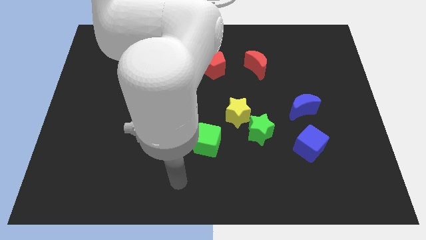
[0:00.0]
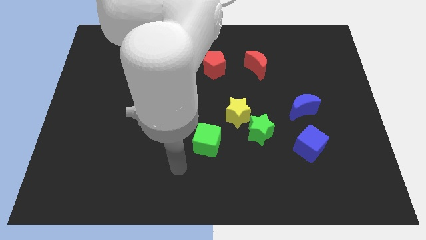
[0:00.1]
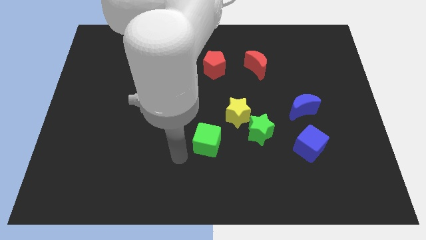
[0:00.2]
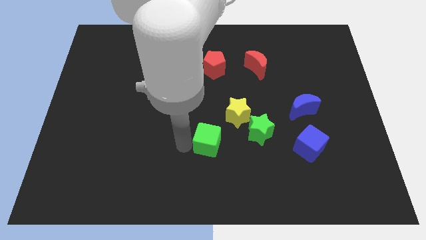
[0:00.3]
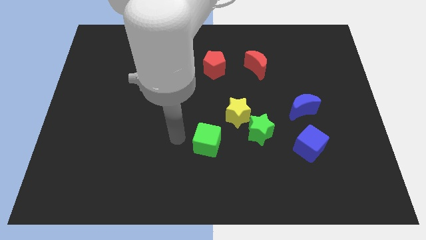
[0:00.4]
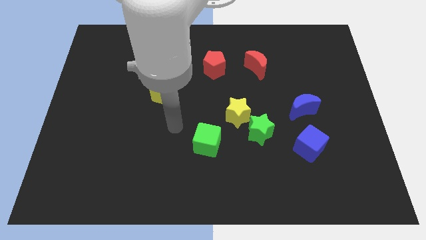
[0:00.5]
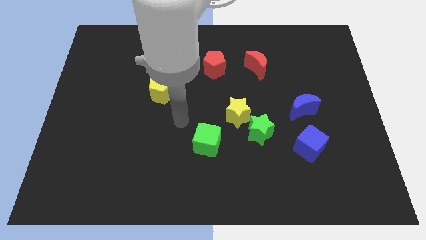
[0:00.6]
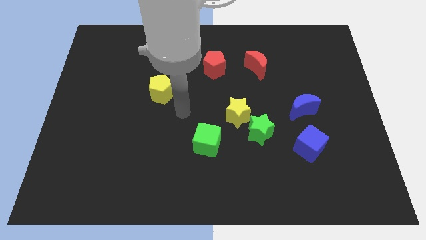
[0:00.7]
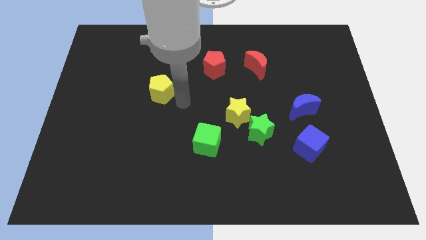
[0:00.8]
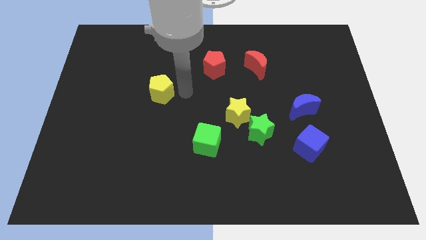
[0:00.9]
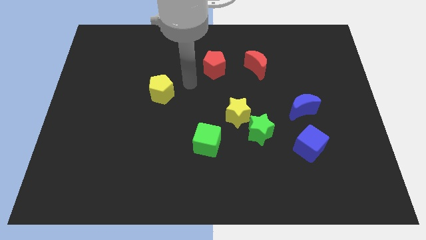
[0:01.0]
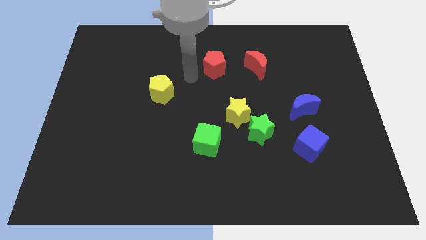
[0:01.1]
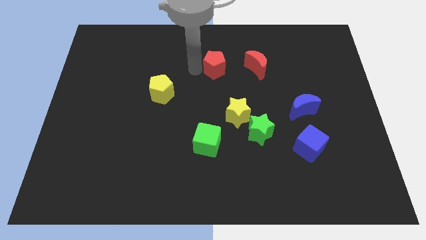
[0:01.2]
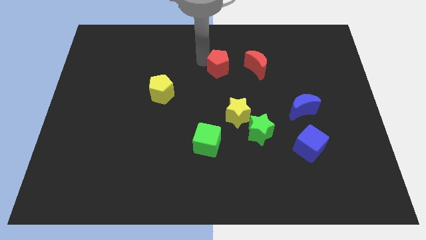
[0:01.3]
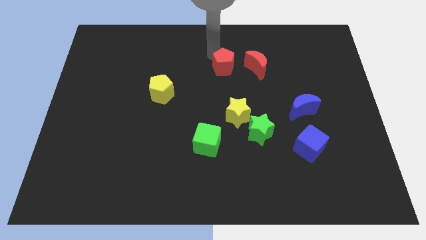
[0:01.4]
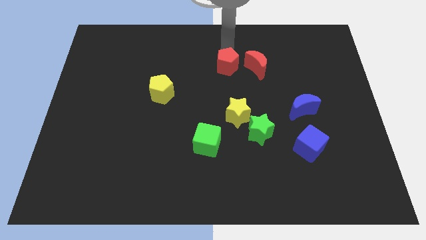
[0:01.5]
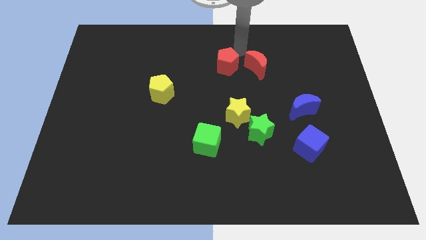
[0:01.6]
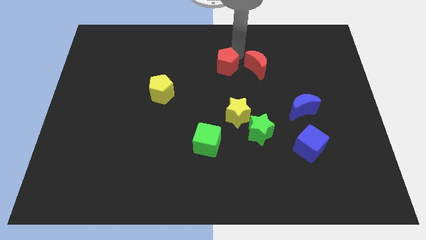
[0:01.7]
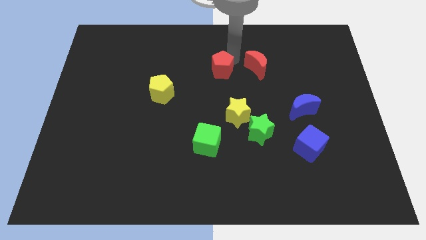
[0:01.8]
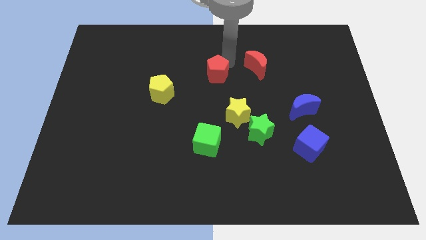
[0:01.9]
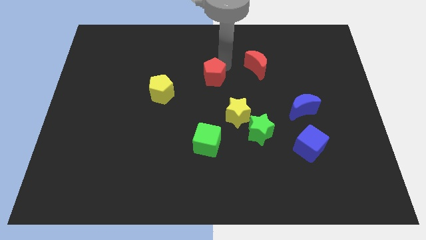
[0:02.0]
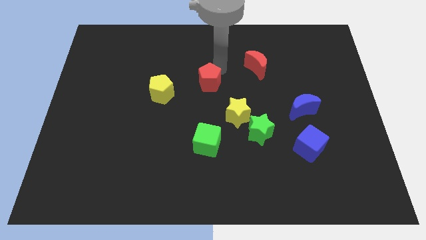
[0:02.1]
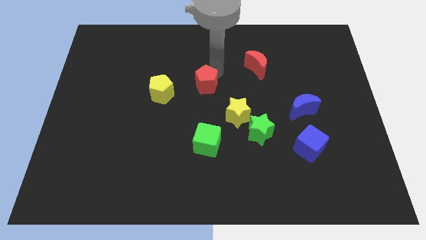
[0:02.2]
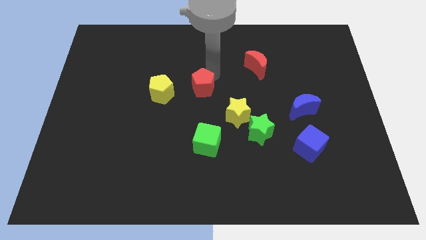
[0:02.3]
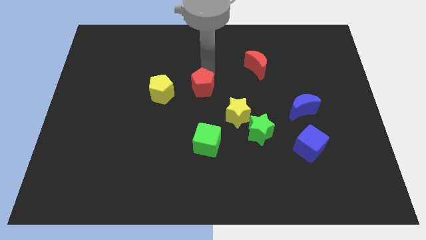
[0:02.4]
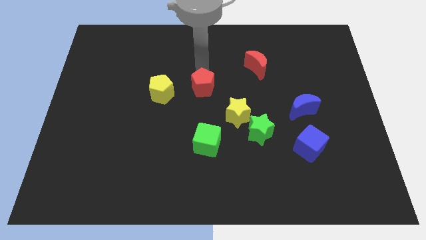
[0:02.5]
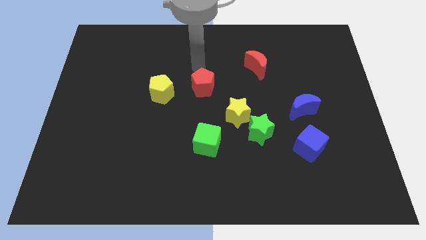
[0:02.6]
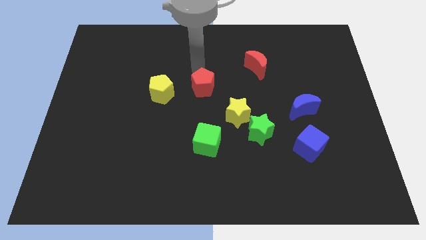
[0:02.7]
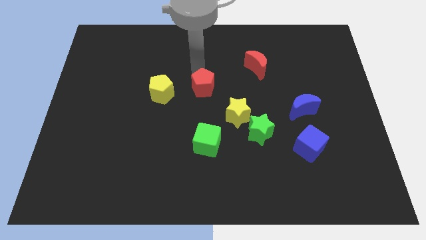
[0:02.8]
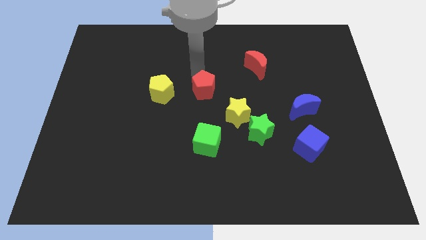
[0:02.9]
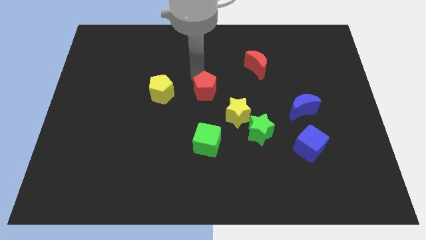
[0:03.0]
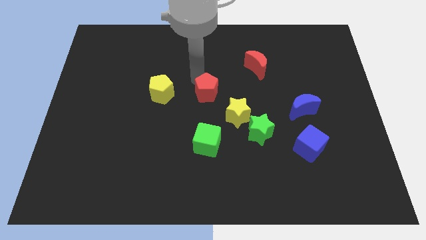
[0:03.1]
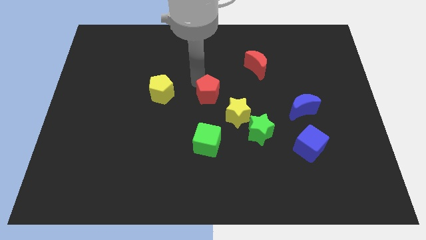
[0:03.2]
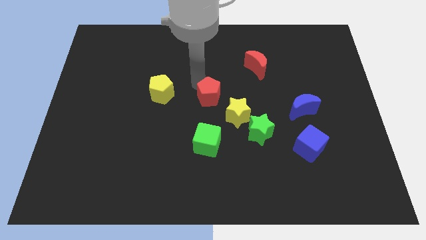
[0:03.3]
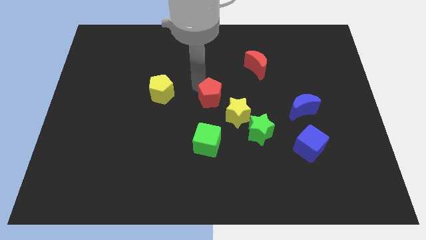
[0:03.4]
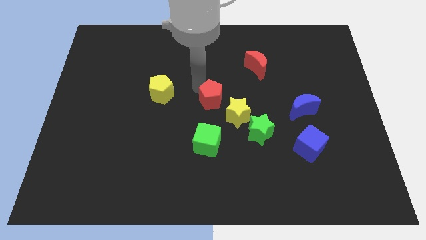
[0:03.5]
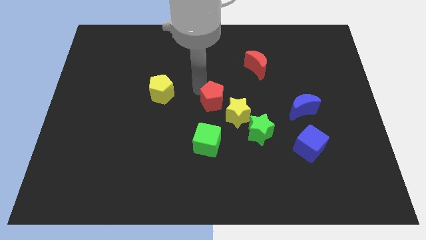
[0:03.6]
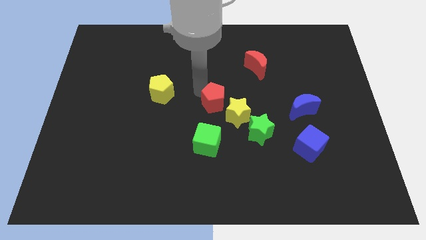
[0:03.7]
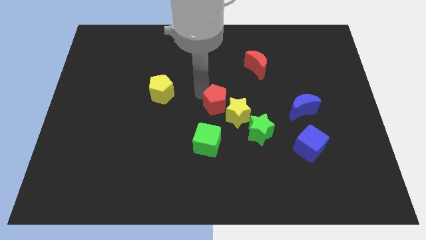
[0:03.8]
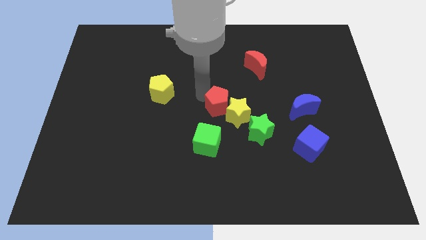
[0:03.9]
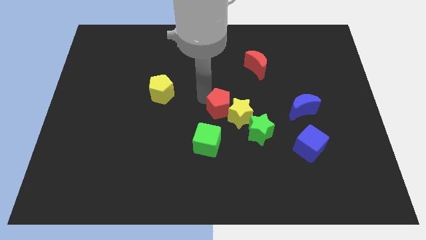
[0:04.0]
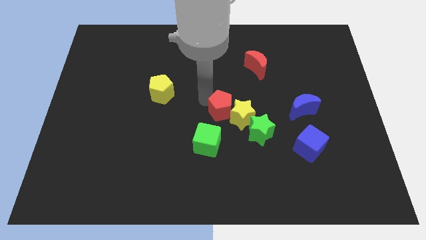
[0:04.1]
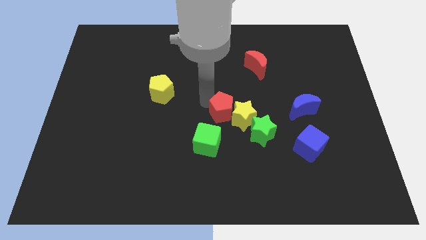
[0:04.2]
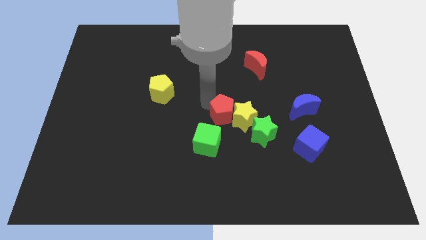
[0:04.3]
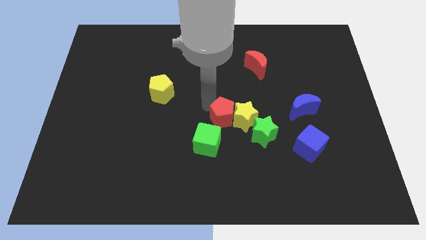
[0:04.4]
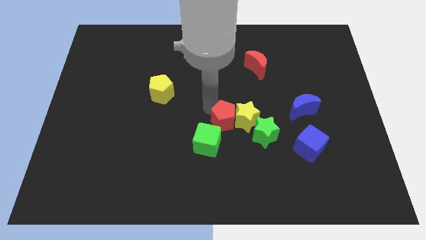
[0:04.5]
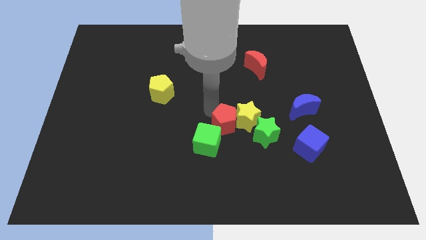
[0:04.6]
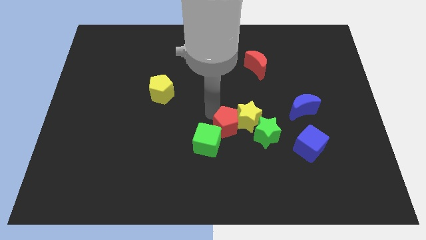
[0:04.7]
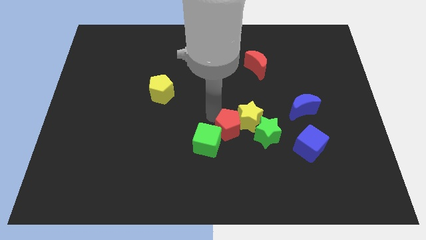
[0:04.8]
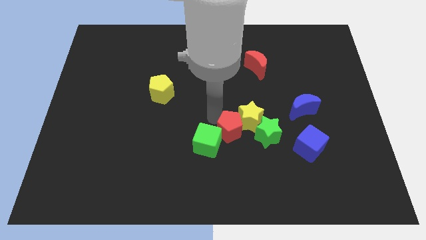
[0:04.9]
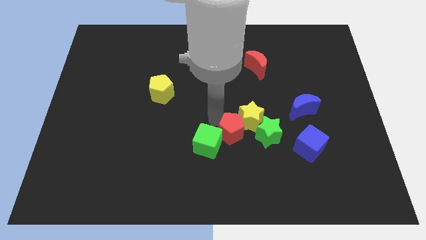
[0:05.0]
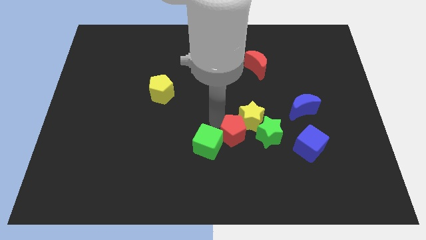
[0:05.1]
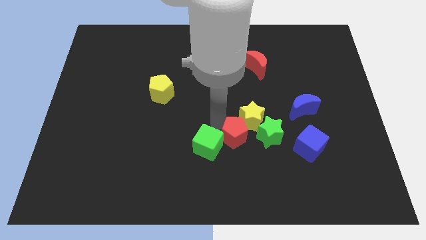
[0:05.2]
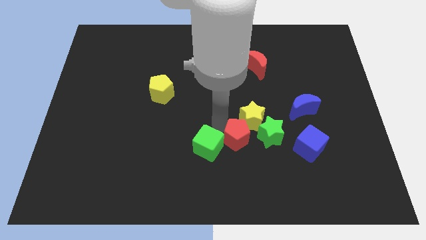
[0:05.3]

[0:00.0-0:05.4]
slide the red pentagon just left of the blue cube

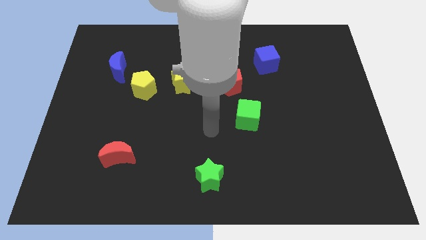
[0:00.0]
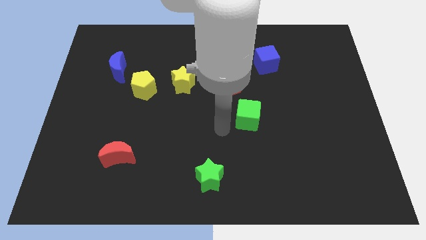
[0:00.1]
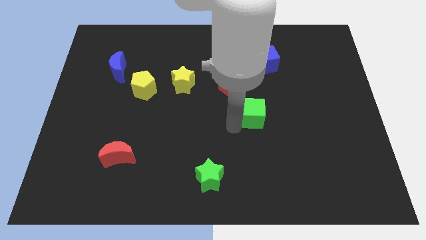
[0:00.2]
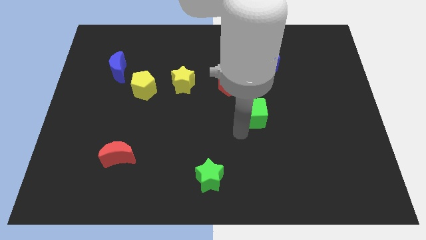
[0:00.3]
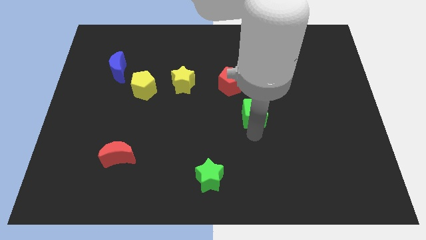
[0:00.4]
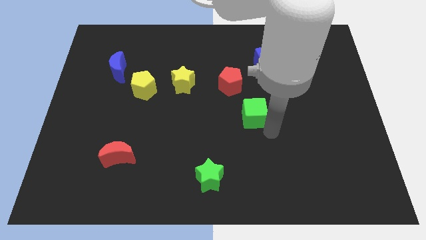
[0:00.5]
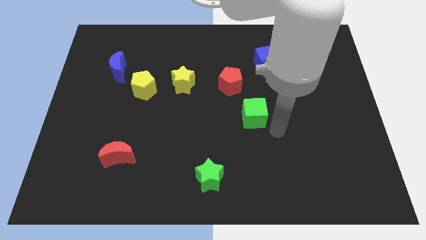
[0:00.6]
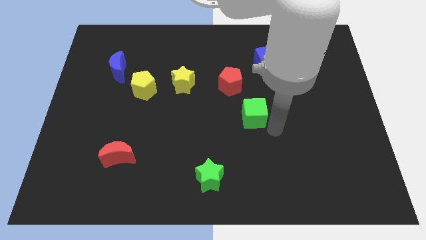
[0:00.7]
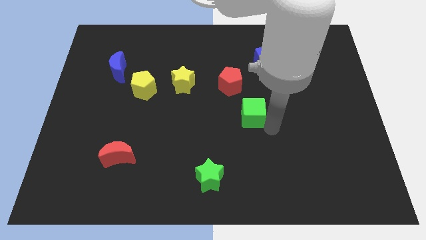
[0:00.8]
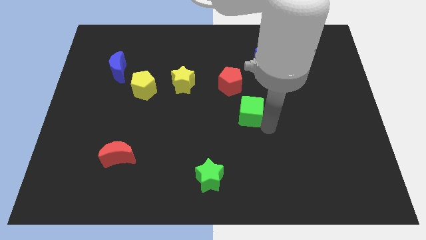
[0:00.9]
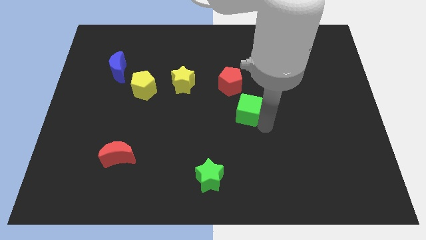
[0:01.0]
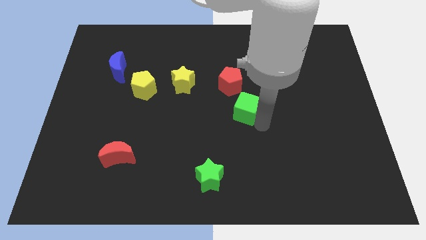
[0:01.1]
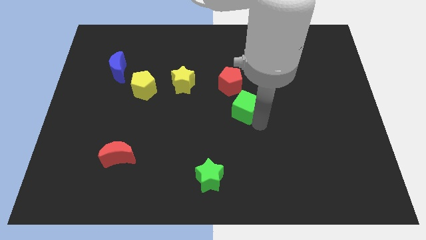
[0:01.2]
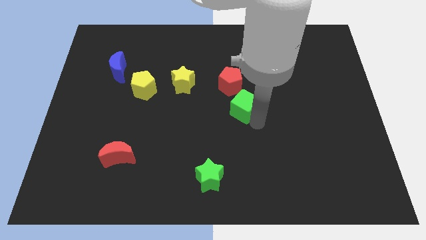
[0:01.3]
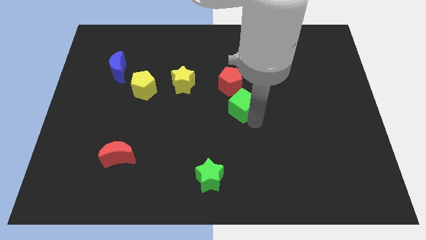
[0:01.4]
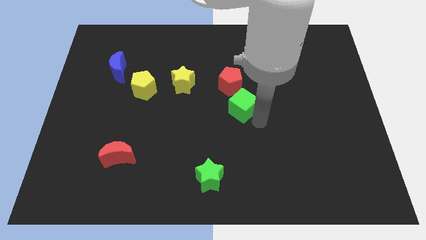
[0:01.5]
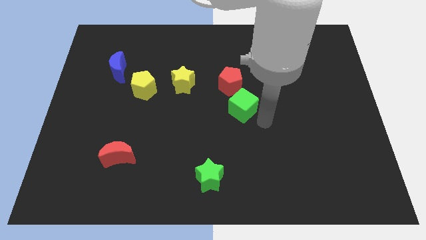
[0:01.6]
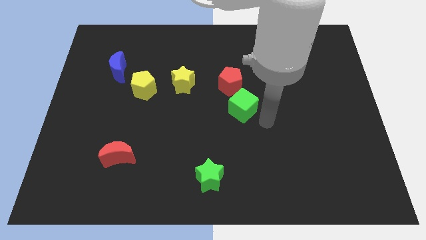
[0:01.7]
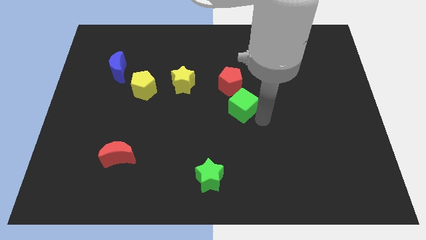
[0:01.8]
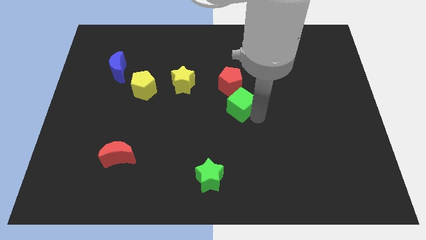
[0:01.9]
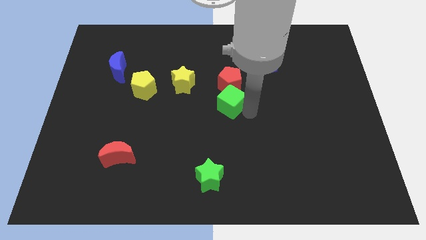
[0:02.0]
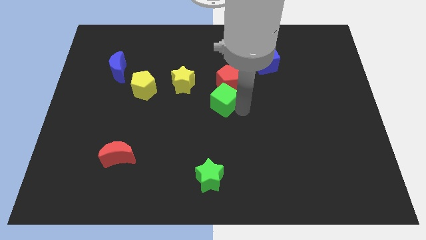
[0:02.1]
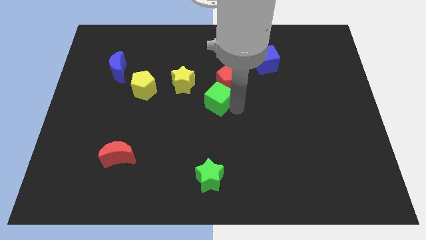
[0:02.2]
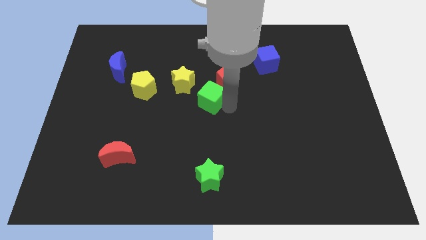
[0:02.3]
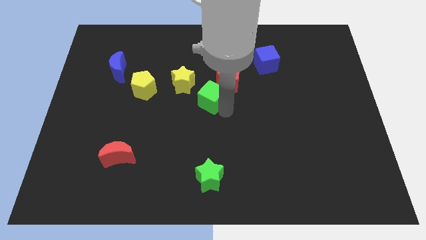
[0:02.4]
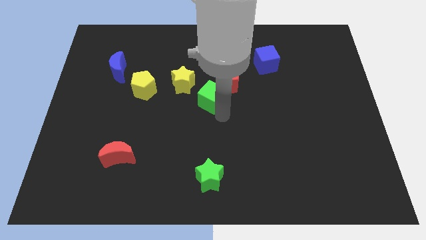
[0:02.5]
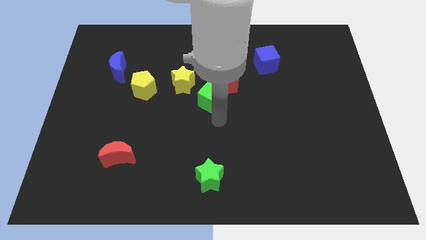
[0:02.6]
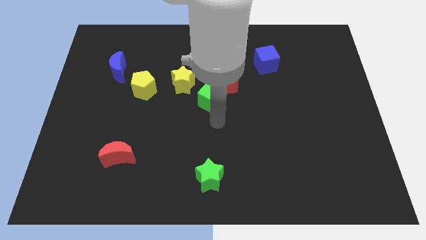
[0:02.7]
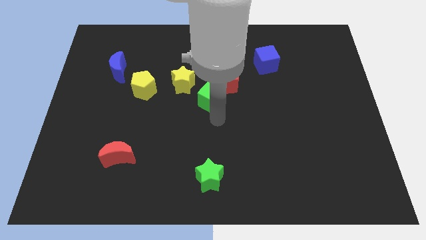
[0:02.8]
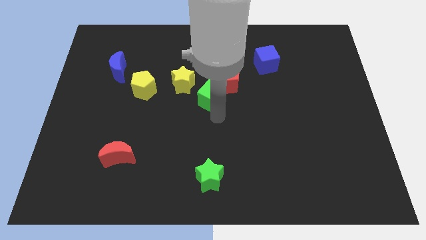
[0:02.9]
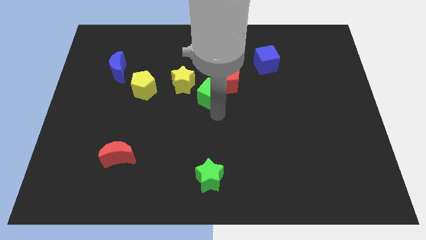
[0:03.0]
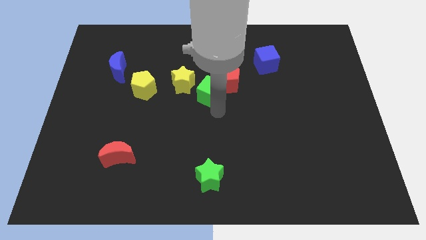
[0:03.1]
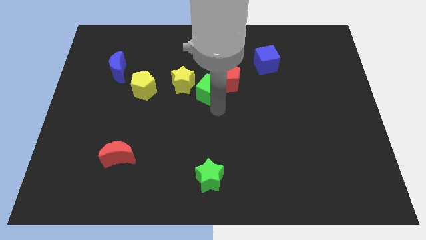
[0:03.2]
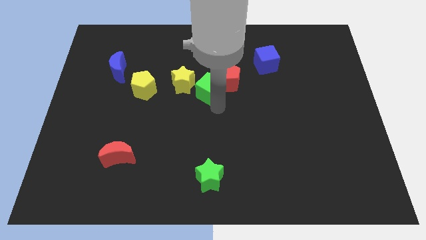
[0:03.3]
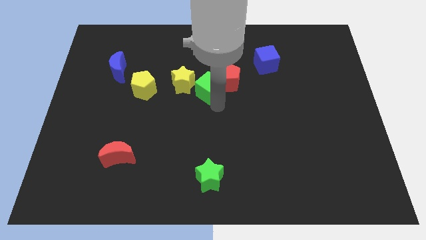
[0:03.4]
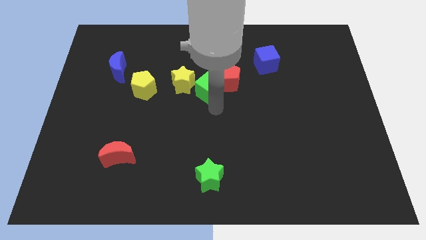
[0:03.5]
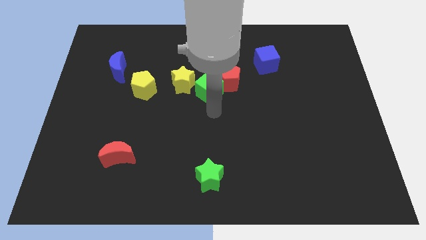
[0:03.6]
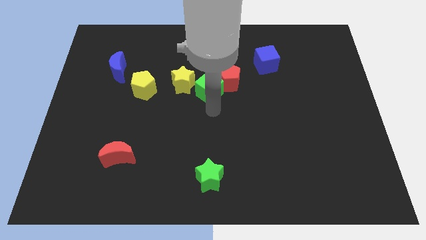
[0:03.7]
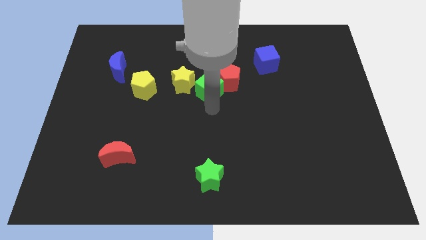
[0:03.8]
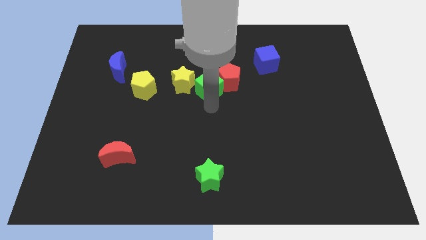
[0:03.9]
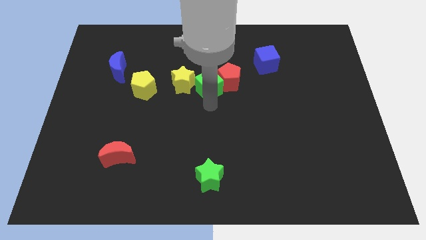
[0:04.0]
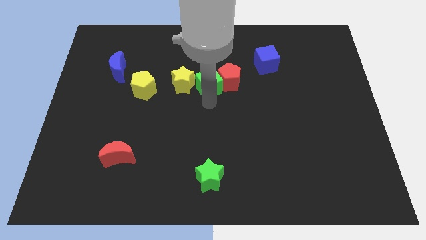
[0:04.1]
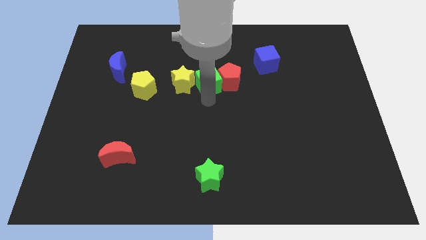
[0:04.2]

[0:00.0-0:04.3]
put the green cube to the top right of the yellow star
